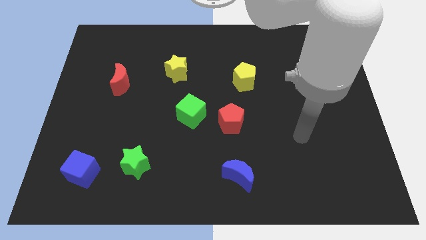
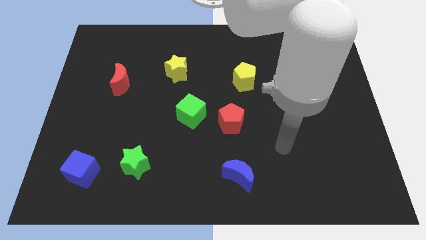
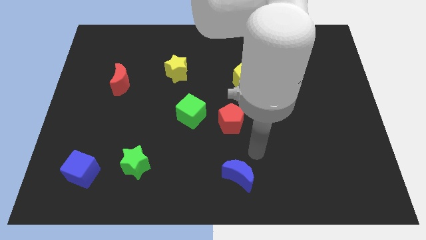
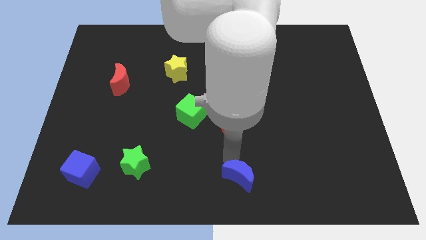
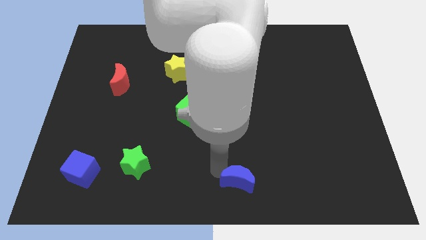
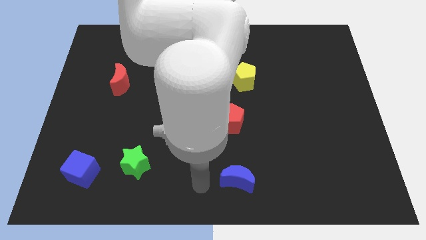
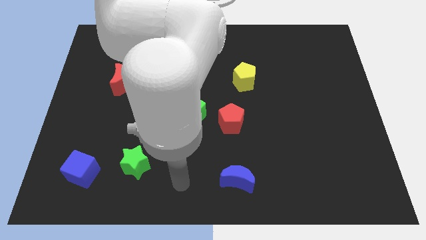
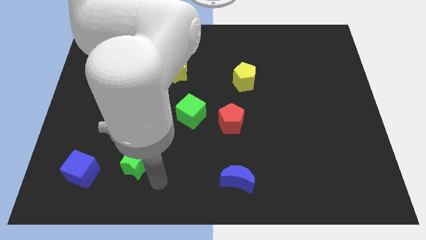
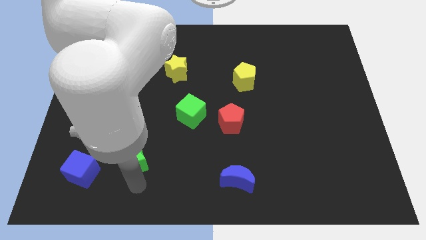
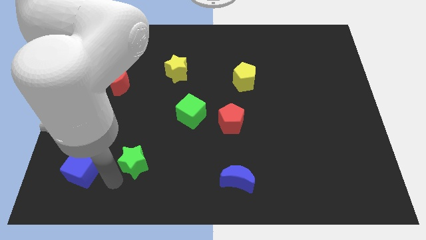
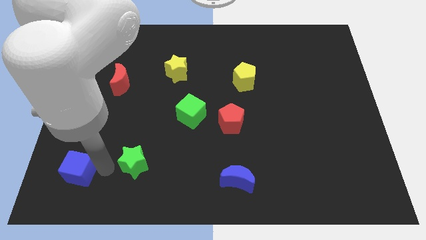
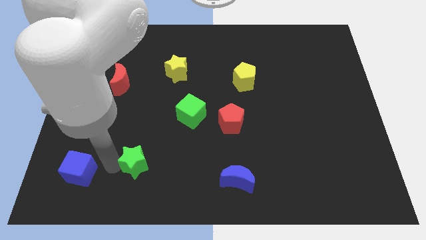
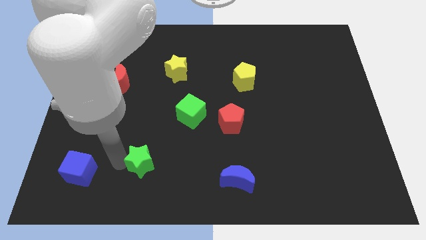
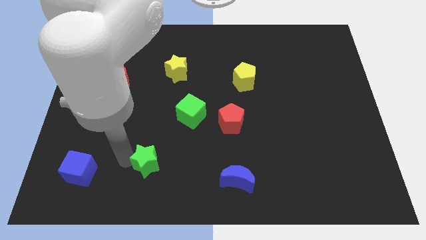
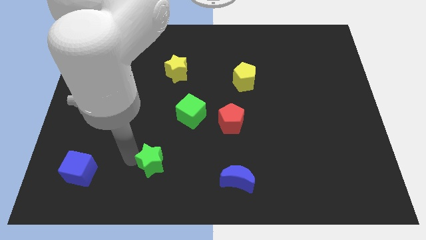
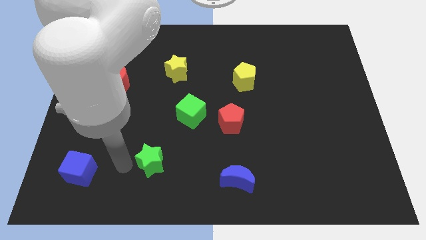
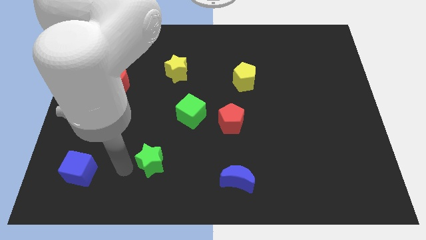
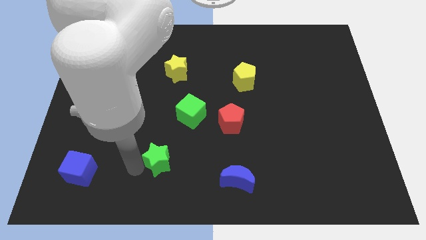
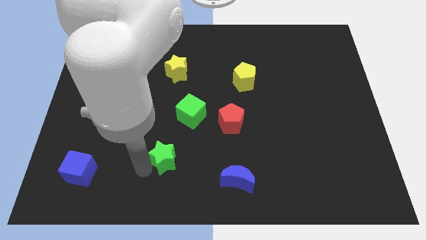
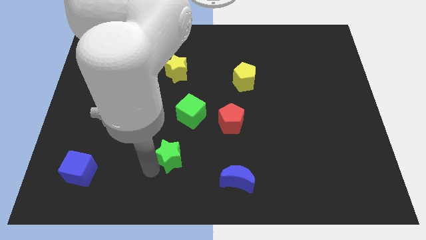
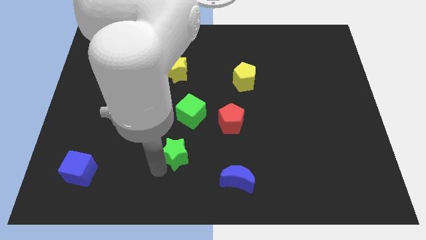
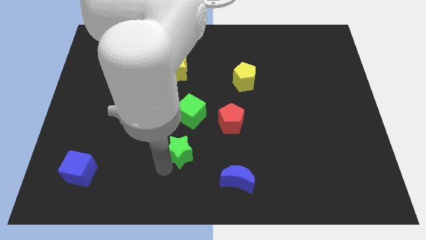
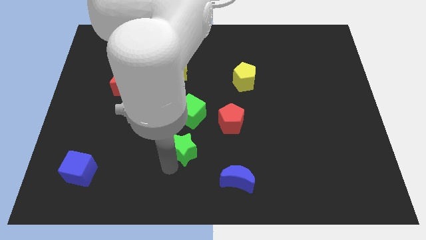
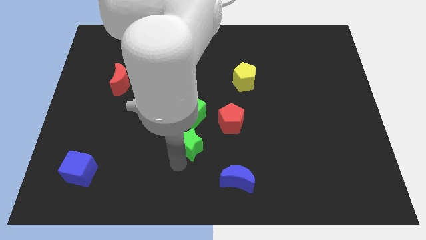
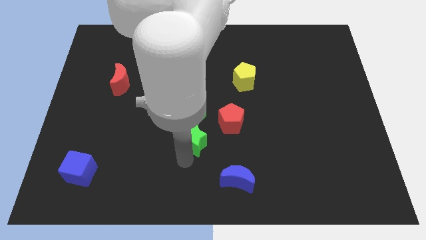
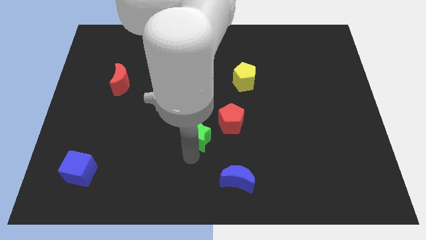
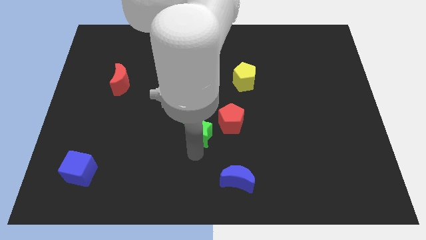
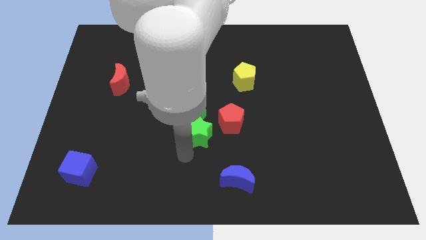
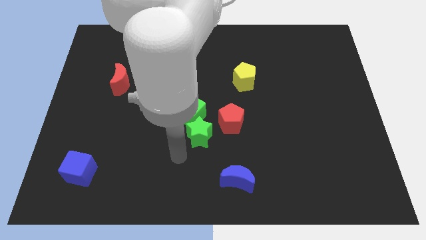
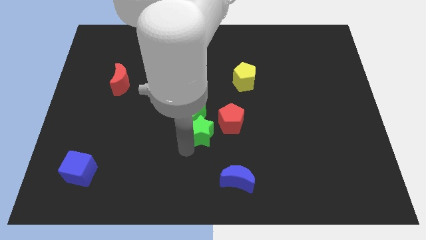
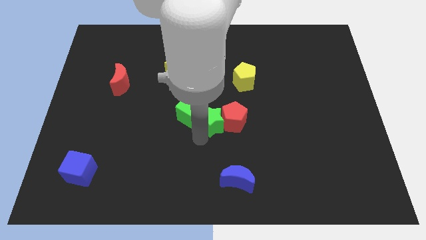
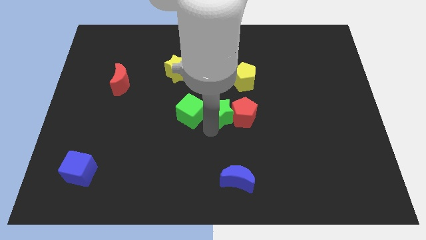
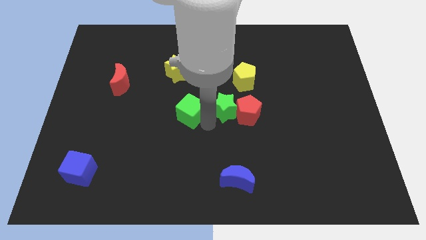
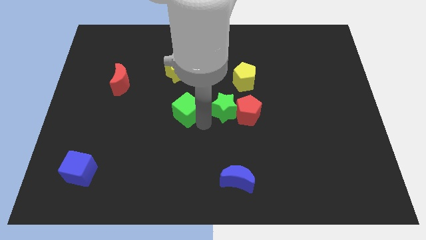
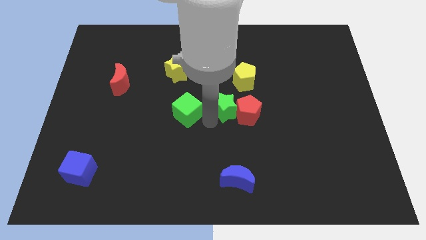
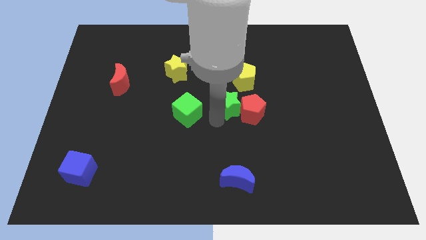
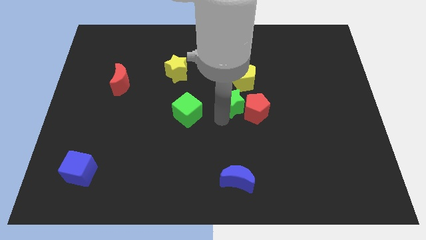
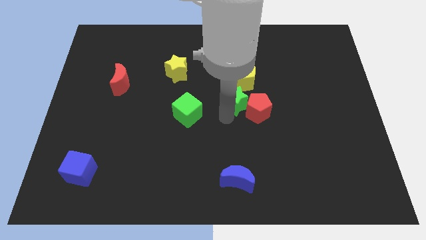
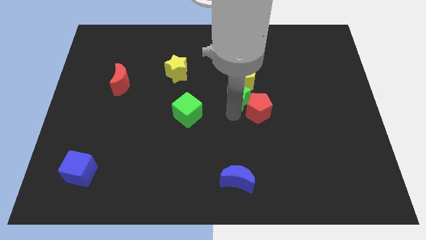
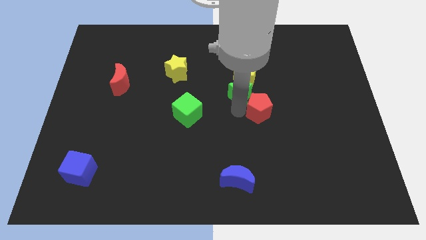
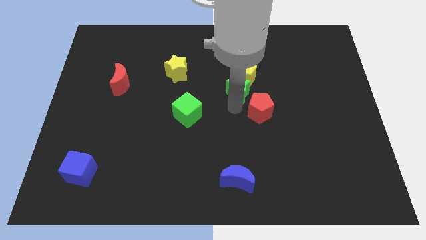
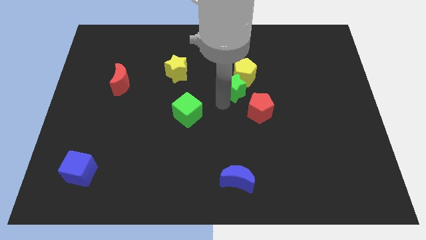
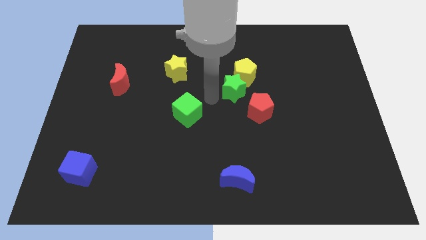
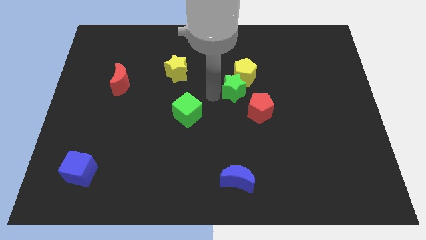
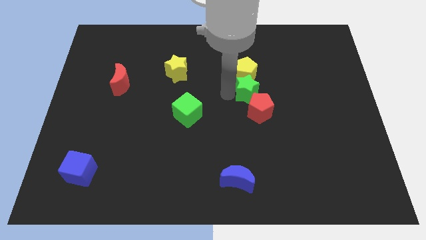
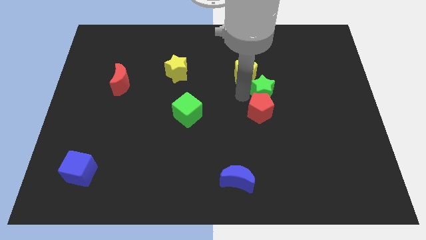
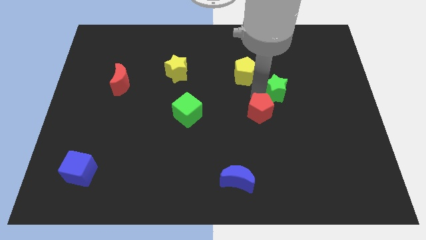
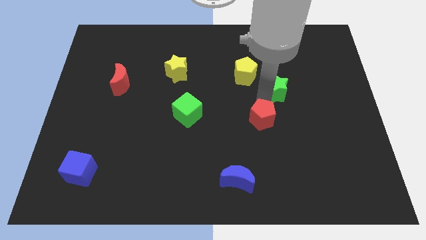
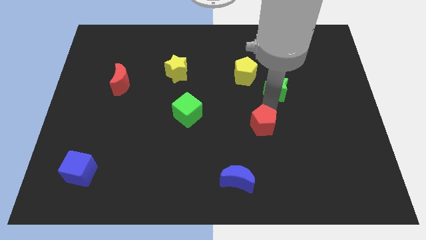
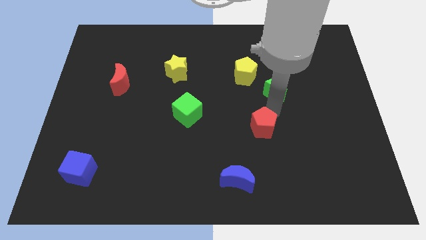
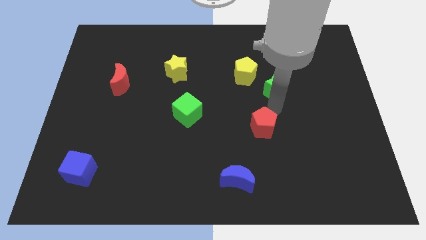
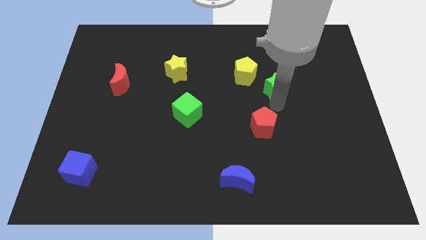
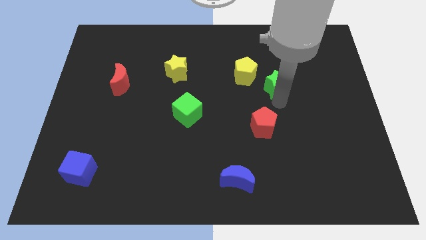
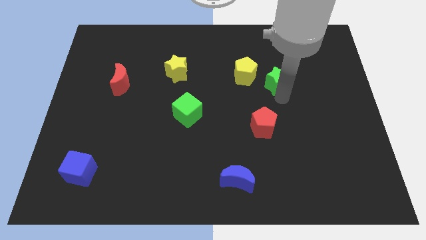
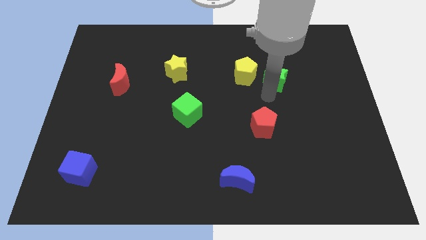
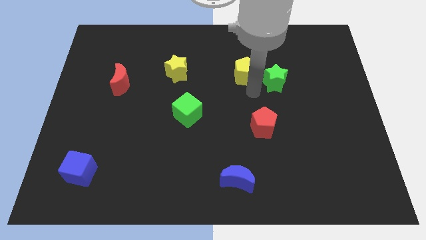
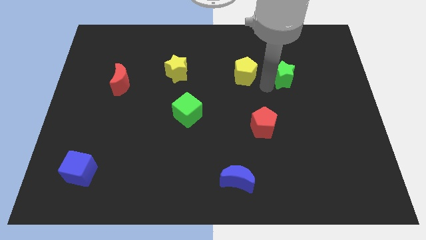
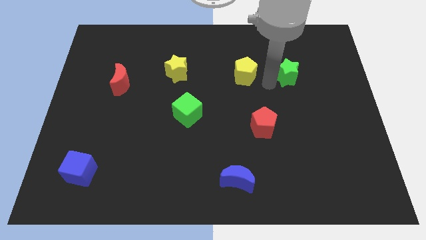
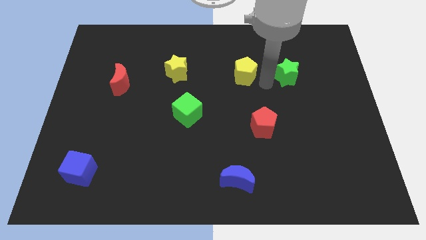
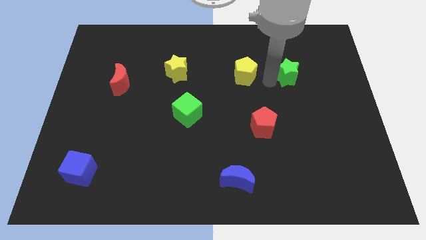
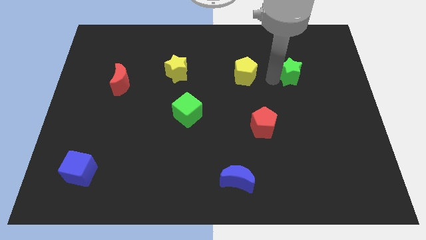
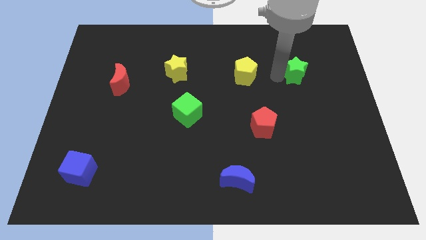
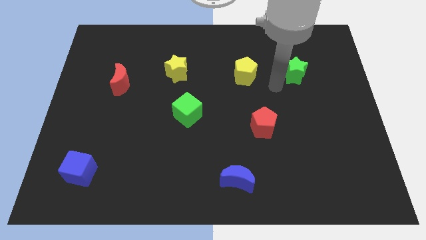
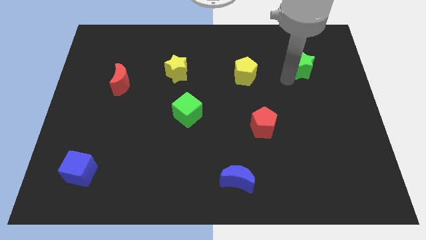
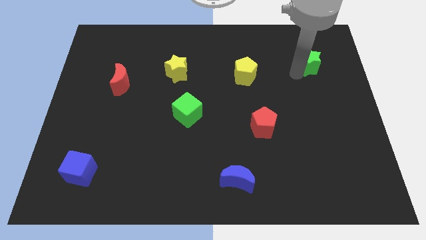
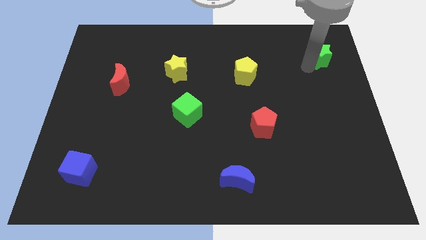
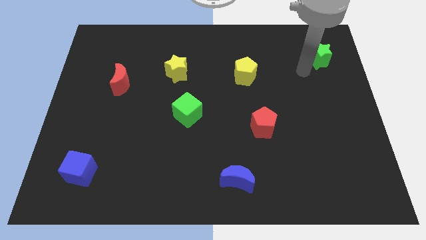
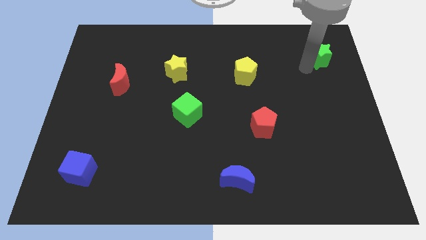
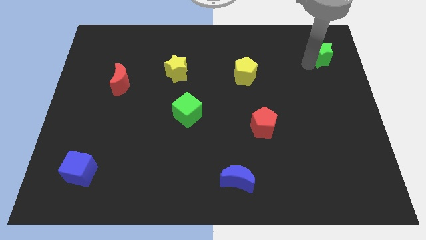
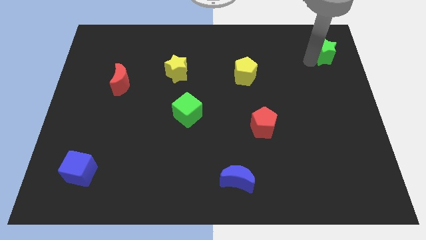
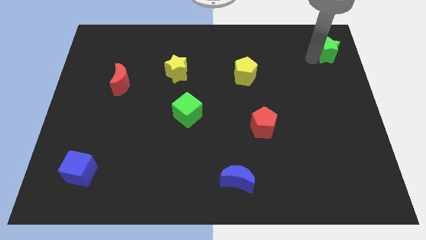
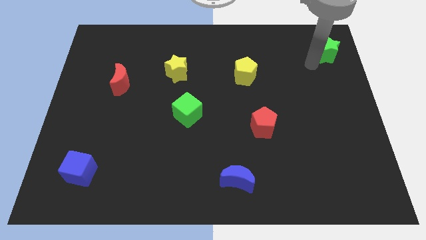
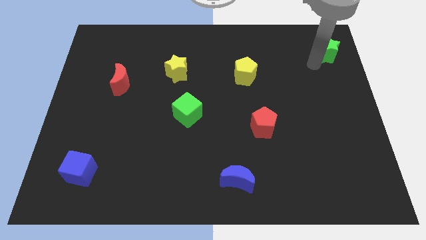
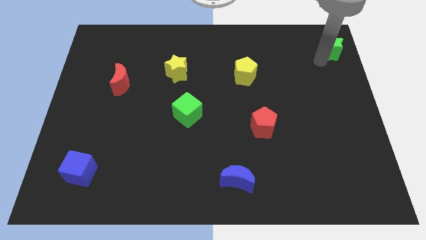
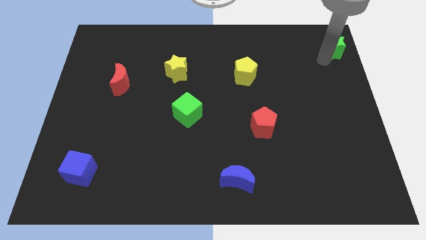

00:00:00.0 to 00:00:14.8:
move the green star to the top right
